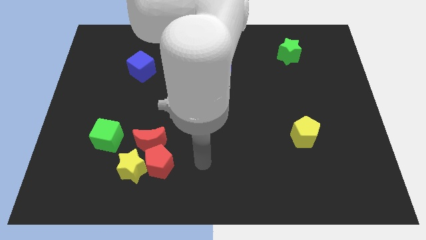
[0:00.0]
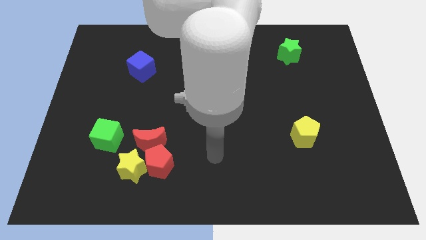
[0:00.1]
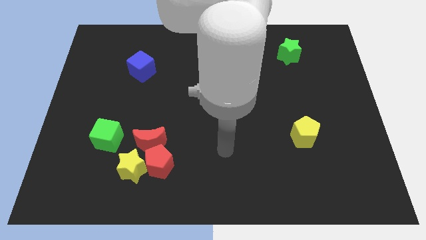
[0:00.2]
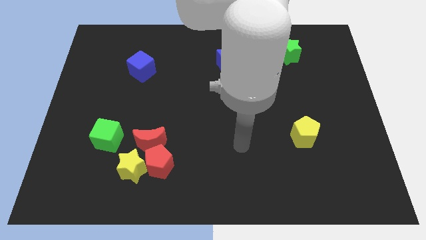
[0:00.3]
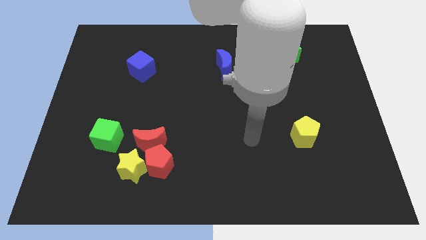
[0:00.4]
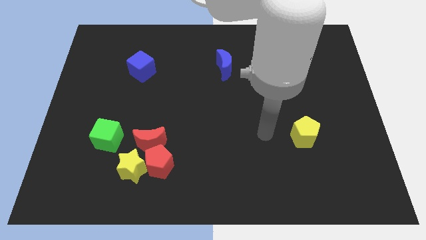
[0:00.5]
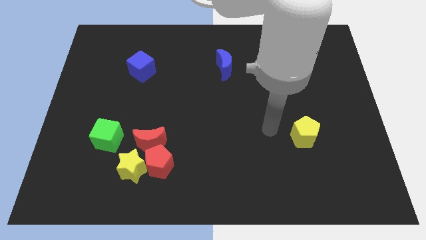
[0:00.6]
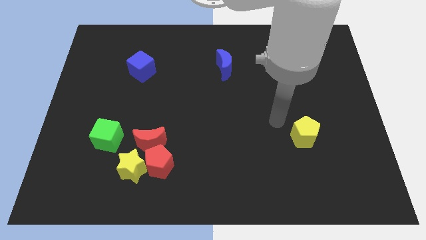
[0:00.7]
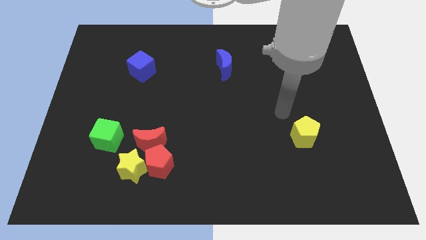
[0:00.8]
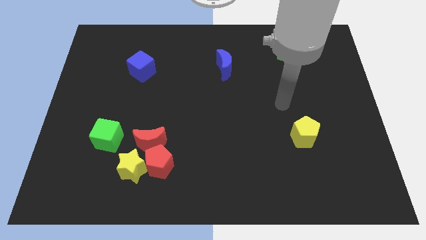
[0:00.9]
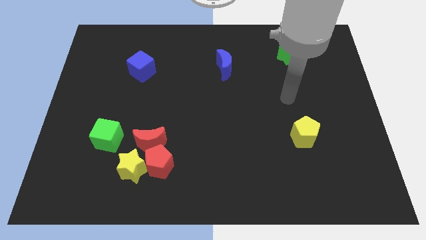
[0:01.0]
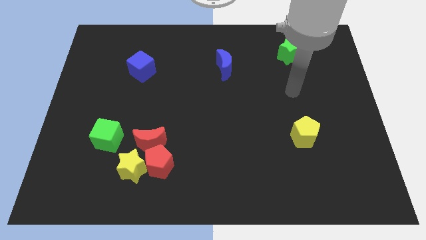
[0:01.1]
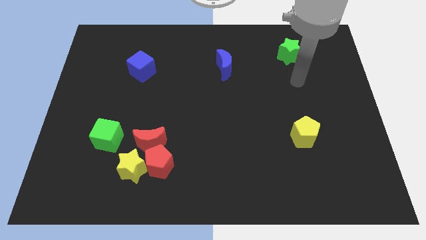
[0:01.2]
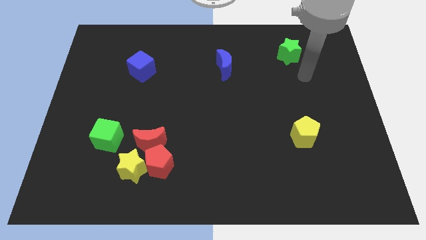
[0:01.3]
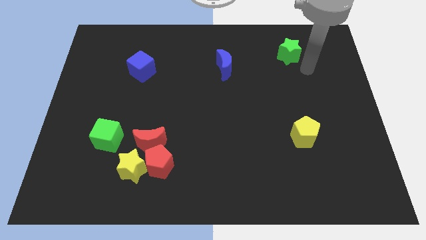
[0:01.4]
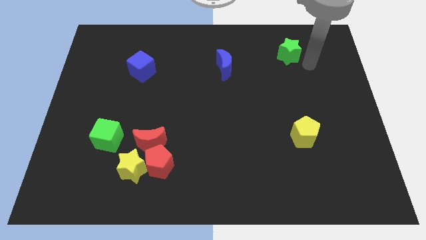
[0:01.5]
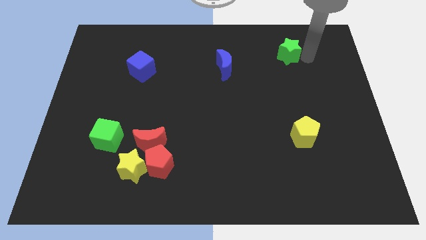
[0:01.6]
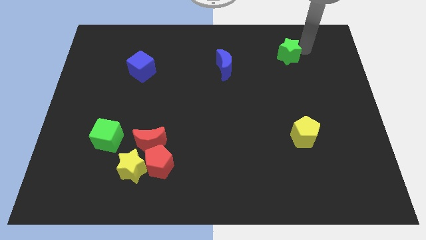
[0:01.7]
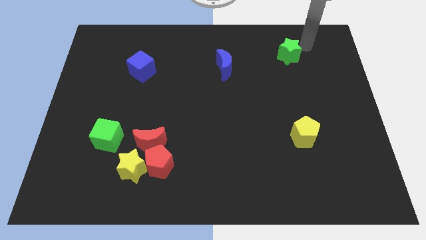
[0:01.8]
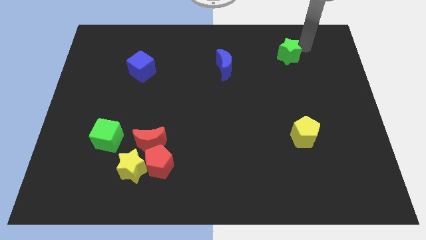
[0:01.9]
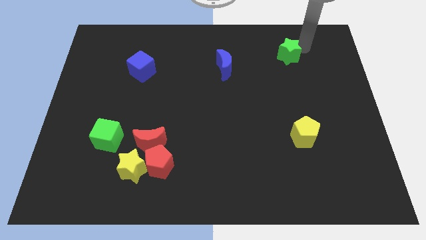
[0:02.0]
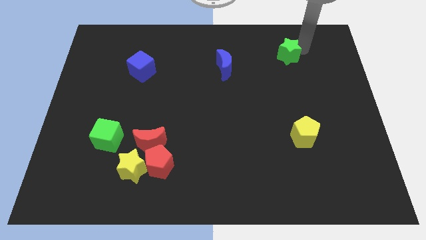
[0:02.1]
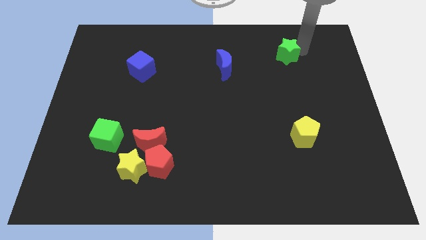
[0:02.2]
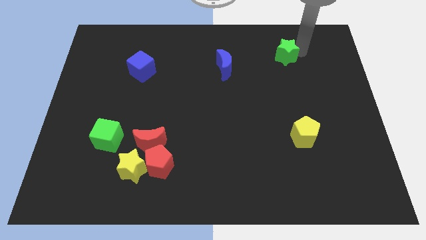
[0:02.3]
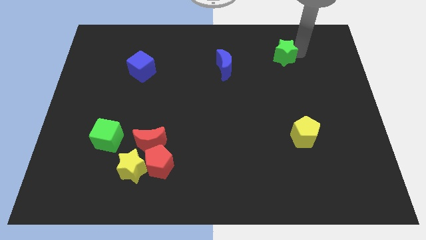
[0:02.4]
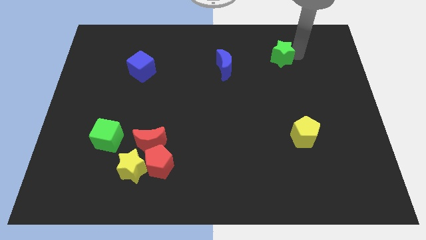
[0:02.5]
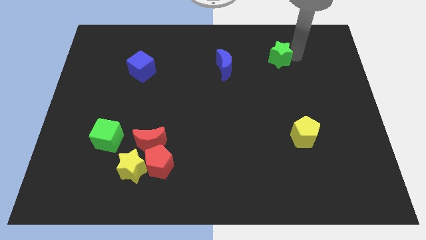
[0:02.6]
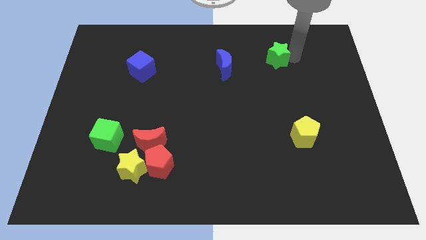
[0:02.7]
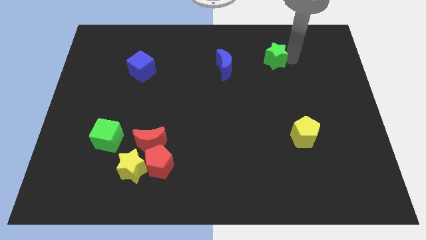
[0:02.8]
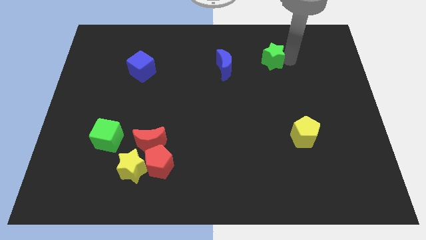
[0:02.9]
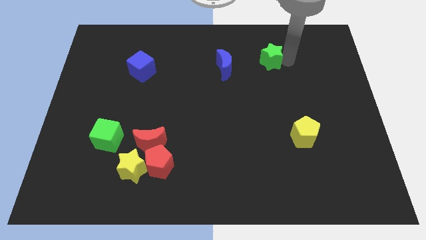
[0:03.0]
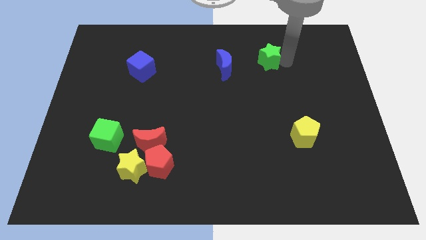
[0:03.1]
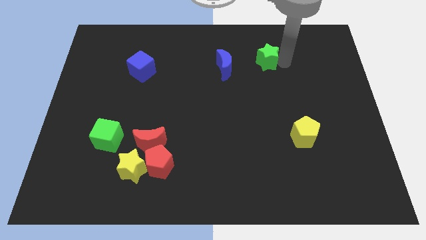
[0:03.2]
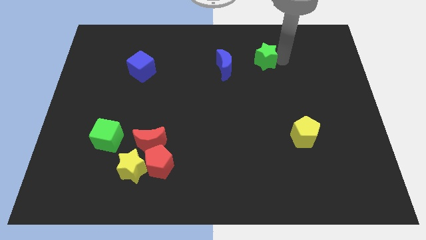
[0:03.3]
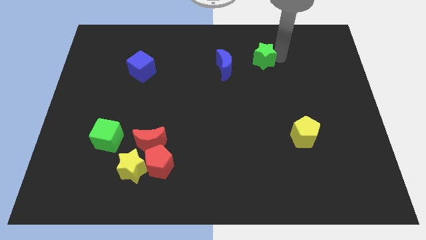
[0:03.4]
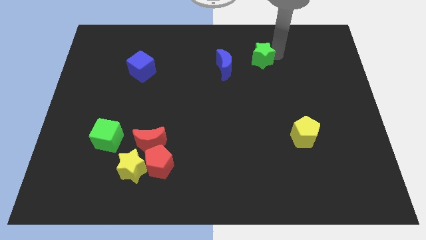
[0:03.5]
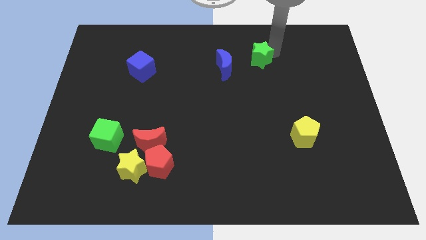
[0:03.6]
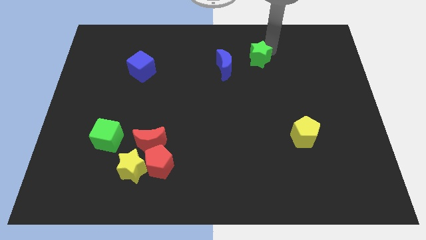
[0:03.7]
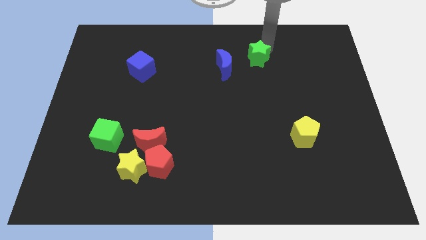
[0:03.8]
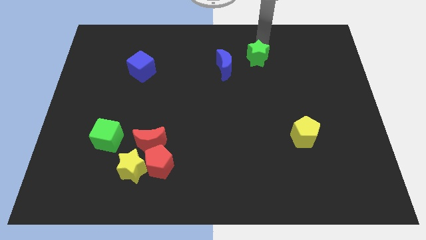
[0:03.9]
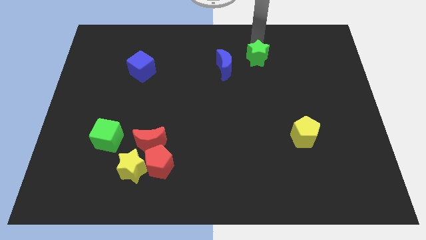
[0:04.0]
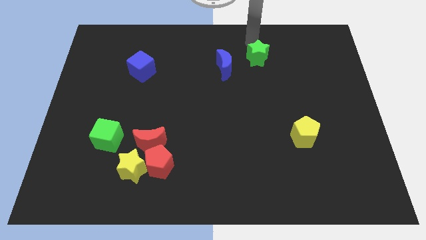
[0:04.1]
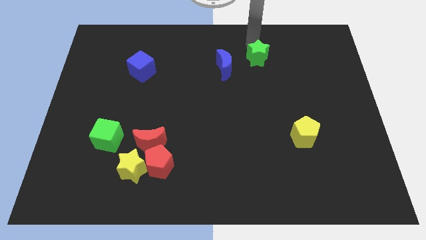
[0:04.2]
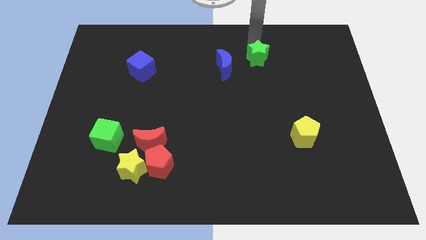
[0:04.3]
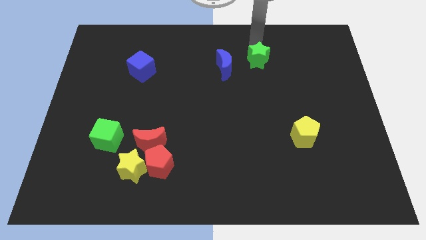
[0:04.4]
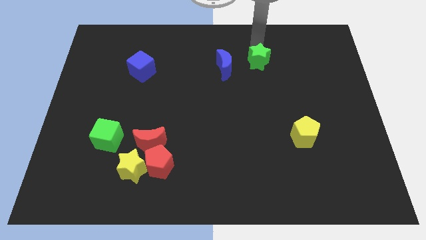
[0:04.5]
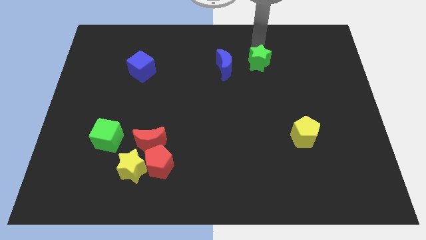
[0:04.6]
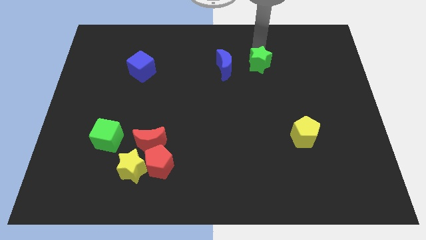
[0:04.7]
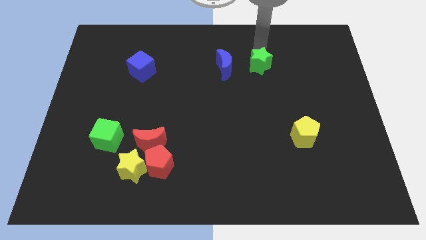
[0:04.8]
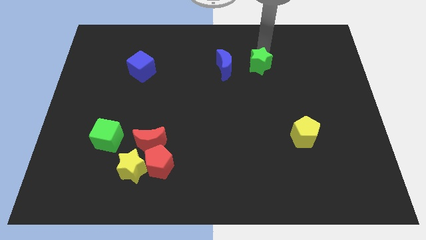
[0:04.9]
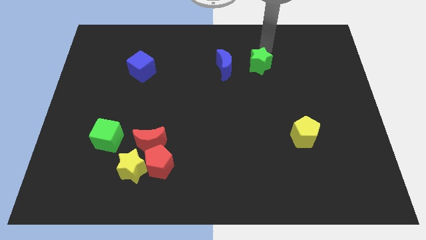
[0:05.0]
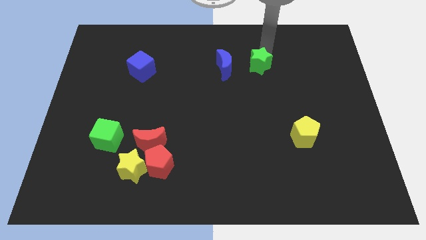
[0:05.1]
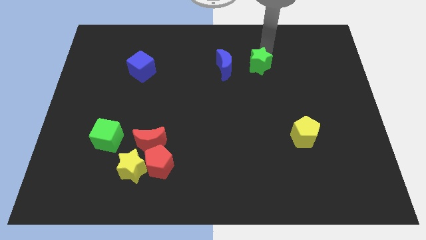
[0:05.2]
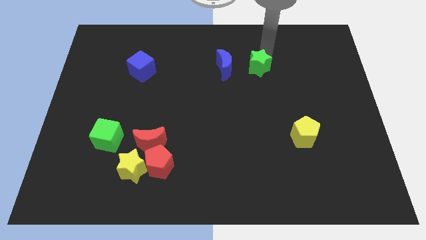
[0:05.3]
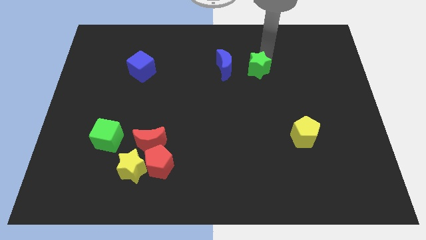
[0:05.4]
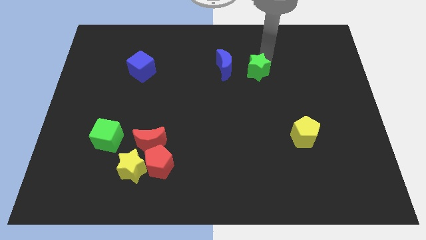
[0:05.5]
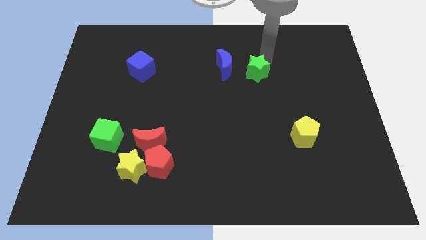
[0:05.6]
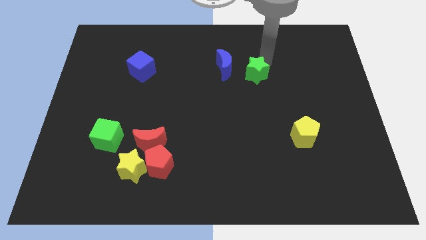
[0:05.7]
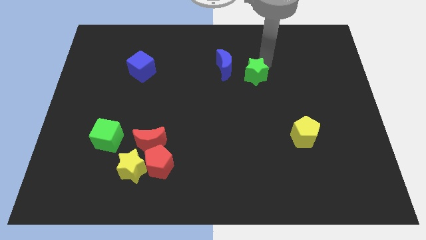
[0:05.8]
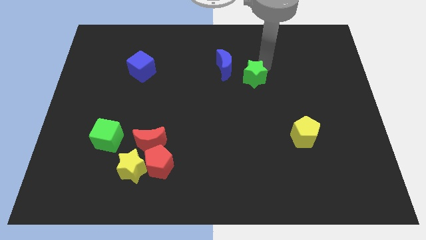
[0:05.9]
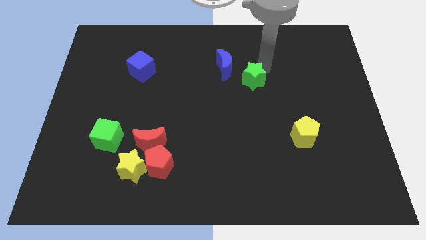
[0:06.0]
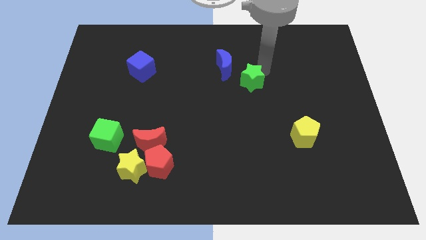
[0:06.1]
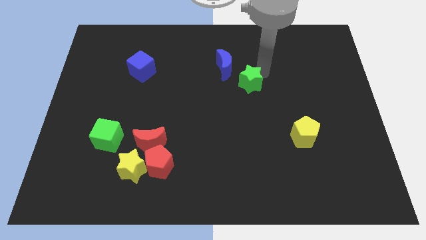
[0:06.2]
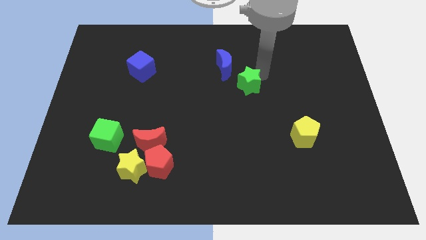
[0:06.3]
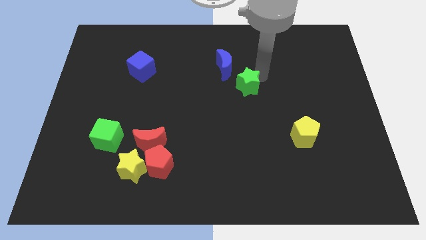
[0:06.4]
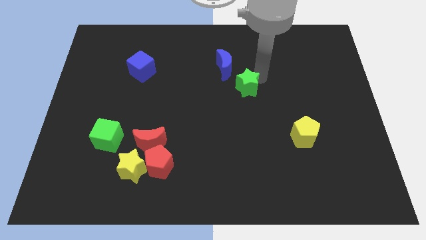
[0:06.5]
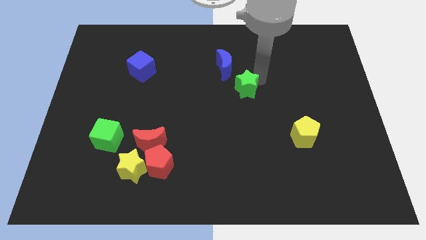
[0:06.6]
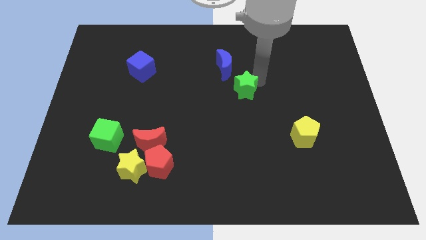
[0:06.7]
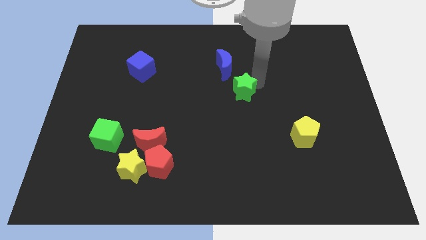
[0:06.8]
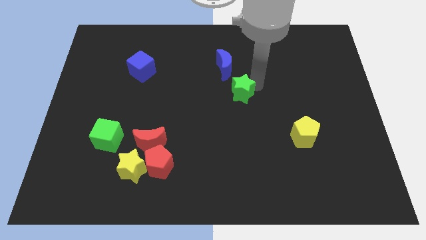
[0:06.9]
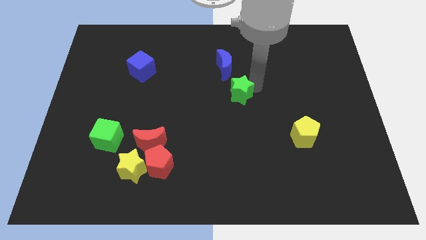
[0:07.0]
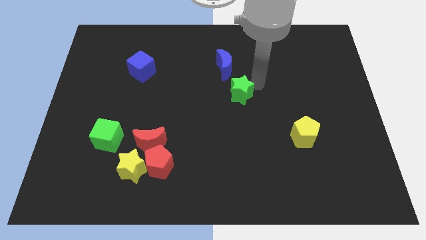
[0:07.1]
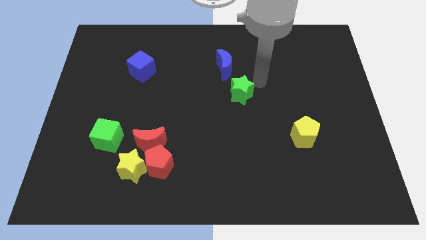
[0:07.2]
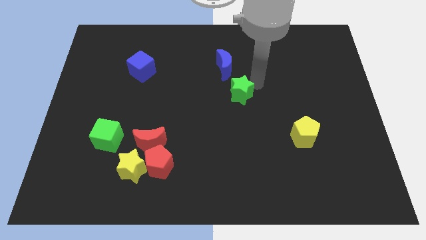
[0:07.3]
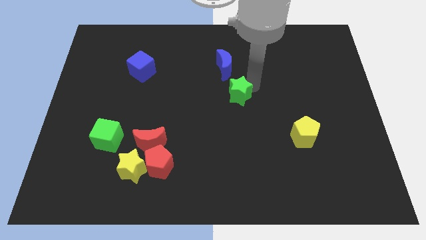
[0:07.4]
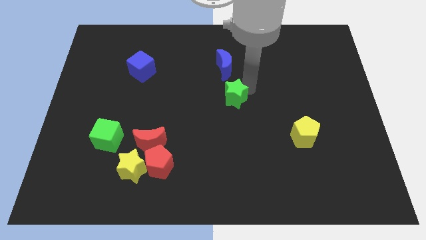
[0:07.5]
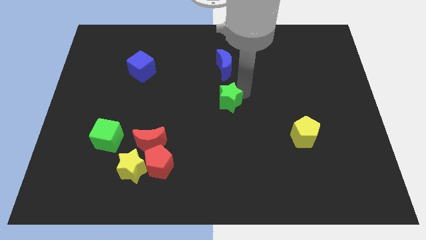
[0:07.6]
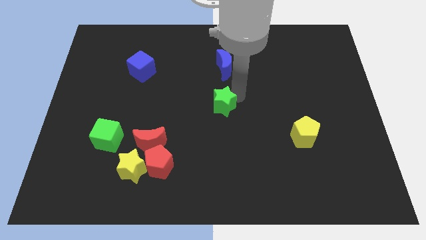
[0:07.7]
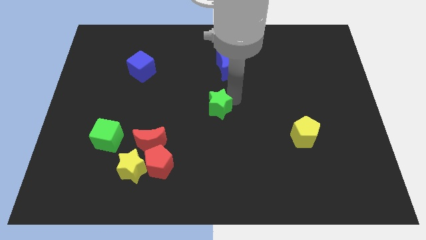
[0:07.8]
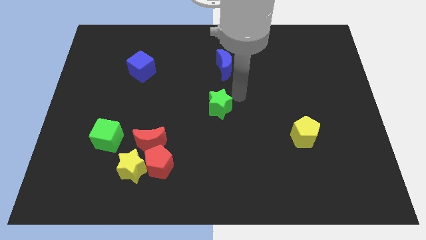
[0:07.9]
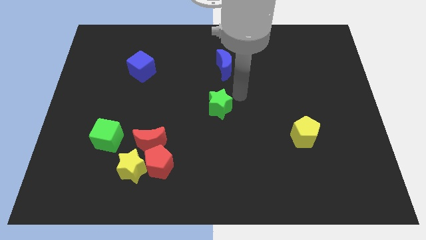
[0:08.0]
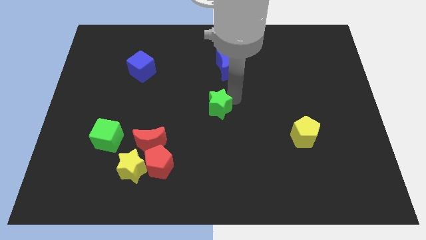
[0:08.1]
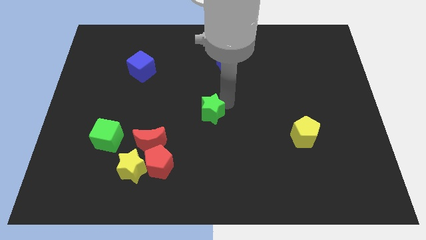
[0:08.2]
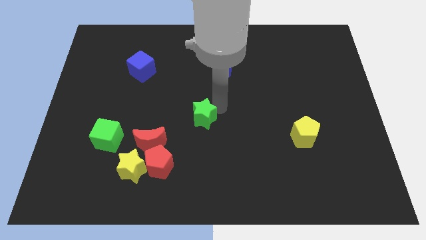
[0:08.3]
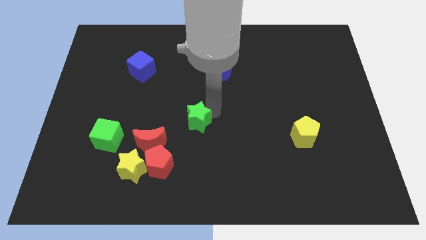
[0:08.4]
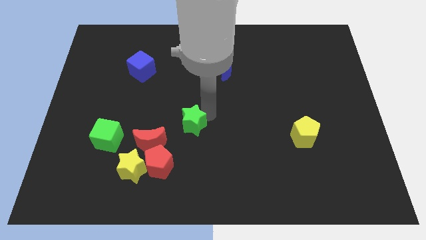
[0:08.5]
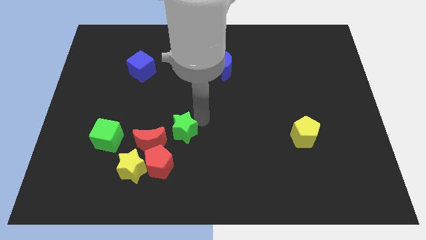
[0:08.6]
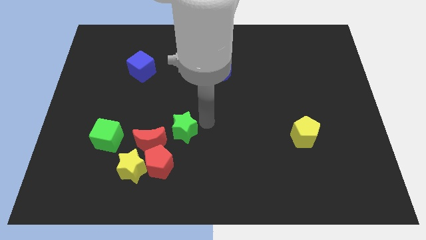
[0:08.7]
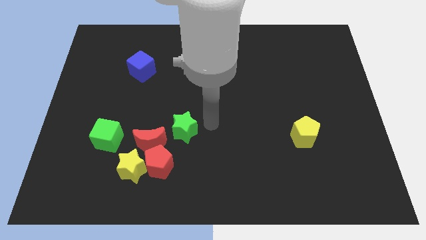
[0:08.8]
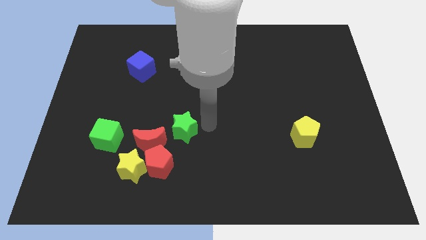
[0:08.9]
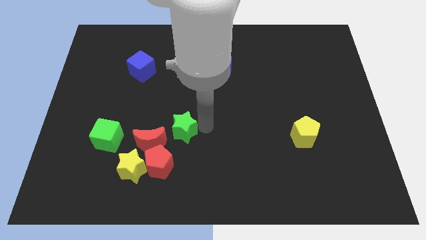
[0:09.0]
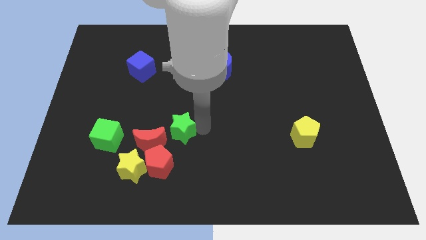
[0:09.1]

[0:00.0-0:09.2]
move the green star just right of the green cube
